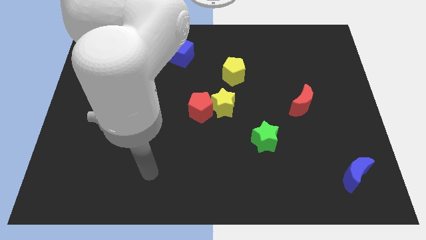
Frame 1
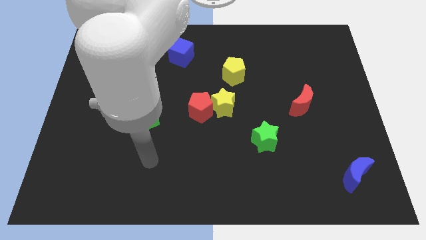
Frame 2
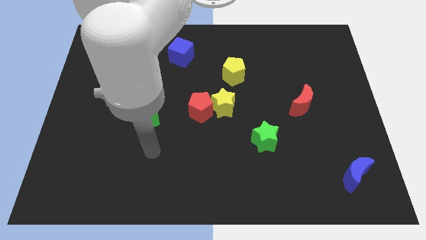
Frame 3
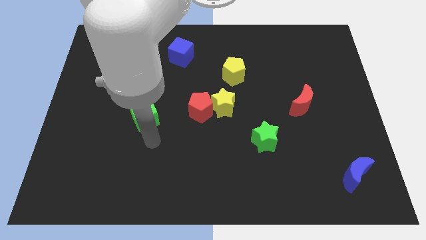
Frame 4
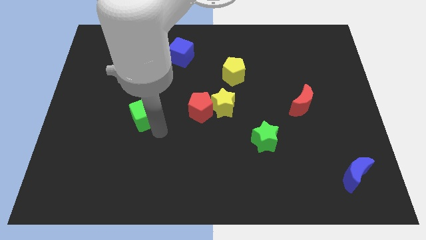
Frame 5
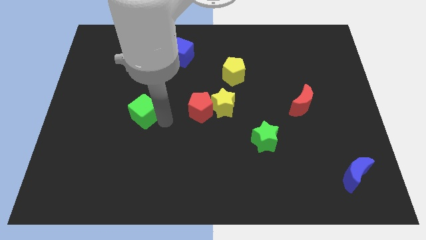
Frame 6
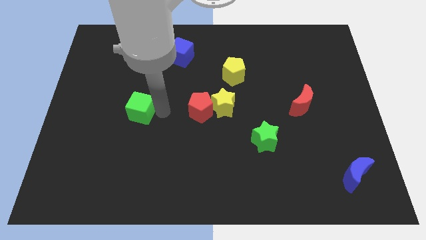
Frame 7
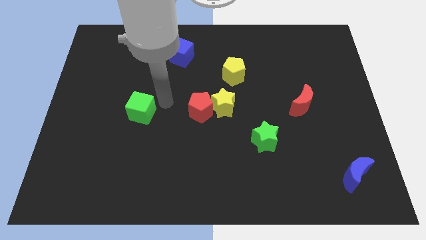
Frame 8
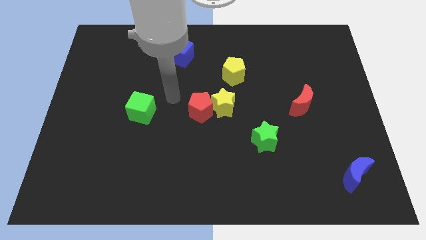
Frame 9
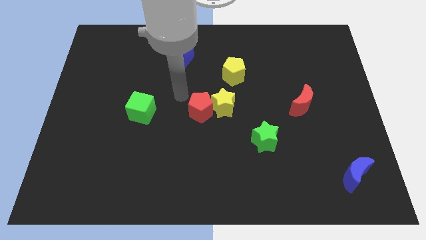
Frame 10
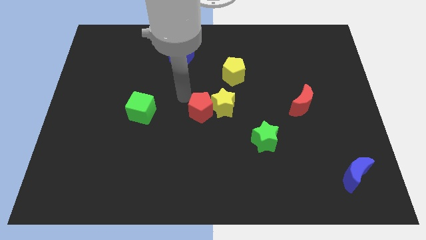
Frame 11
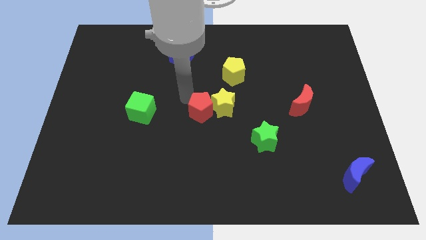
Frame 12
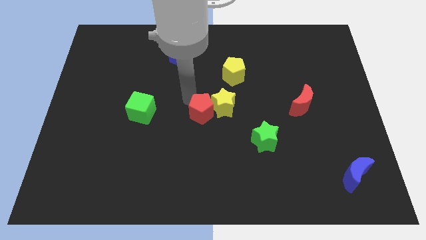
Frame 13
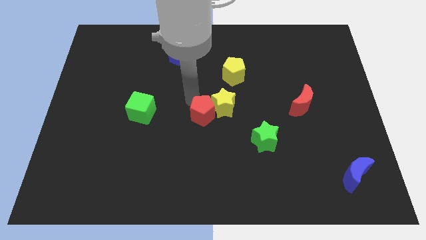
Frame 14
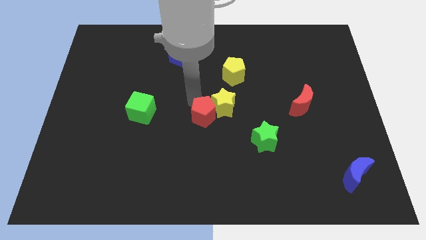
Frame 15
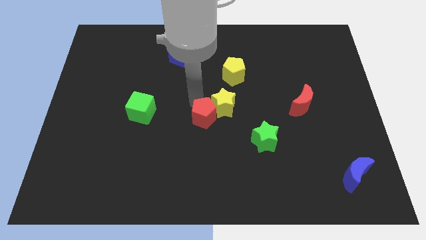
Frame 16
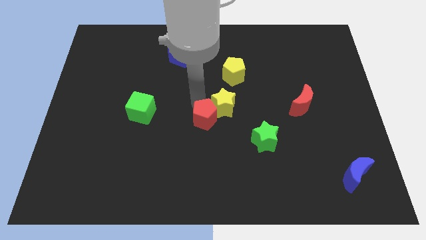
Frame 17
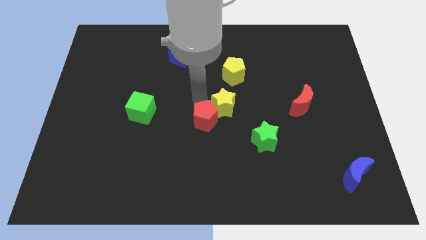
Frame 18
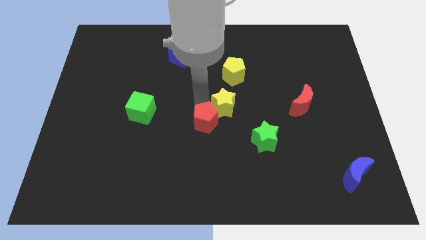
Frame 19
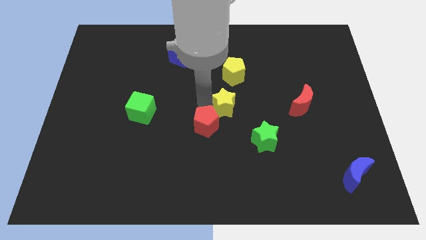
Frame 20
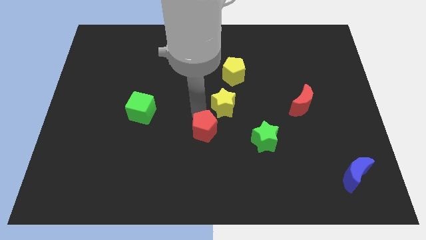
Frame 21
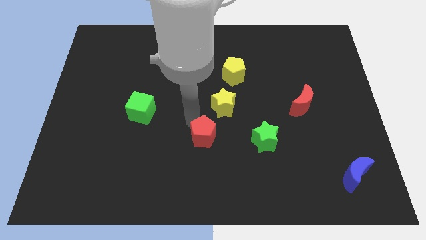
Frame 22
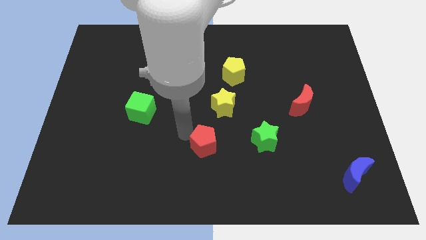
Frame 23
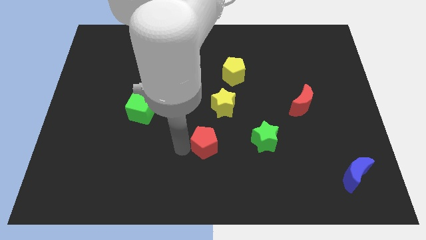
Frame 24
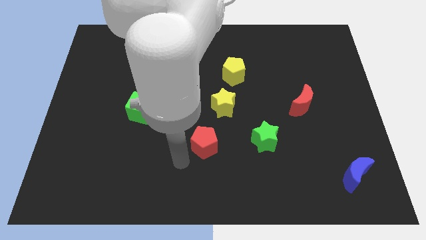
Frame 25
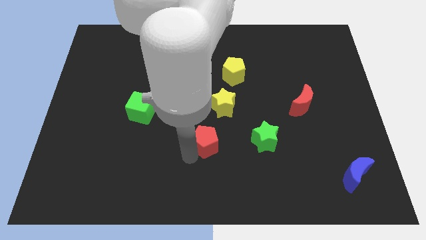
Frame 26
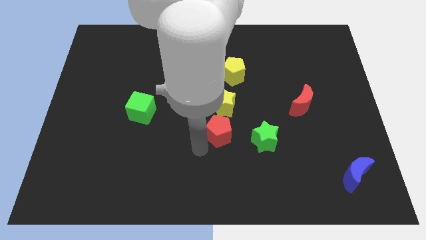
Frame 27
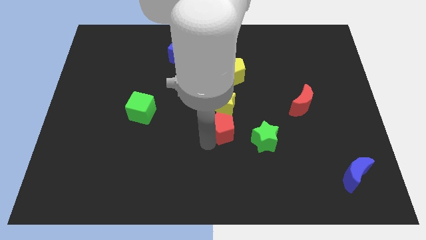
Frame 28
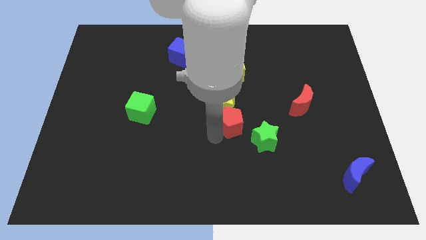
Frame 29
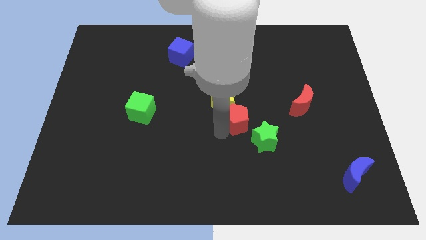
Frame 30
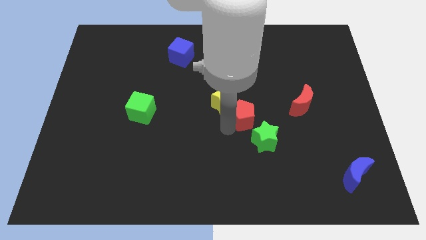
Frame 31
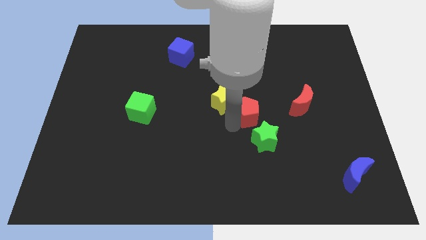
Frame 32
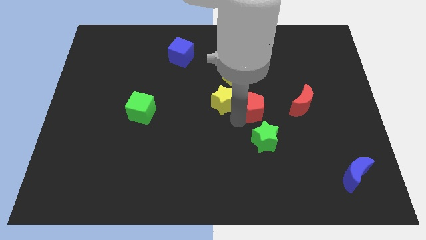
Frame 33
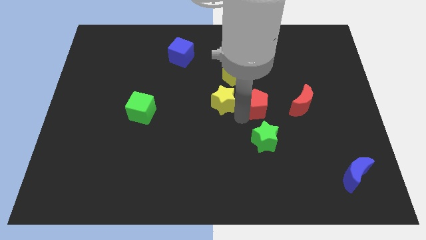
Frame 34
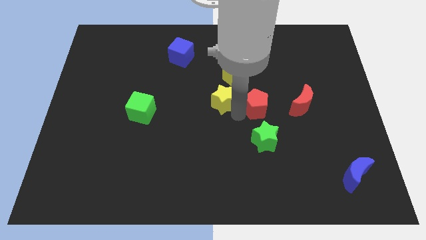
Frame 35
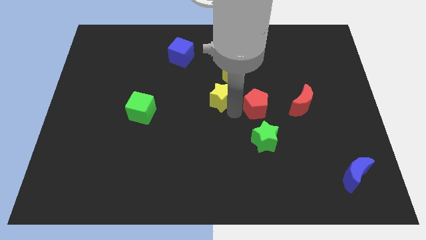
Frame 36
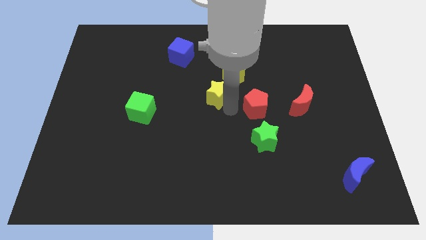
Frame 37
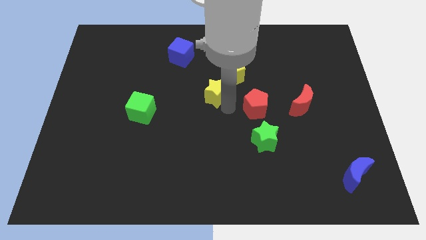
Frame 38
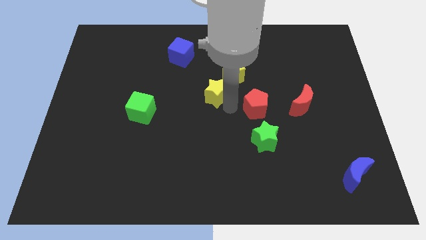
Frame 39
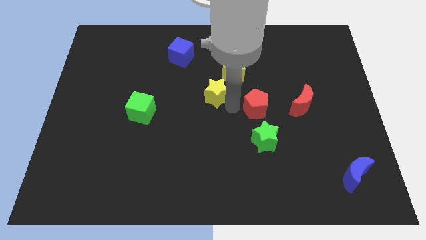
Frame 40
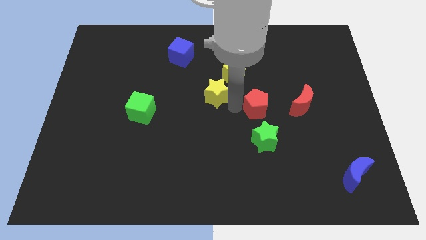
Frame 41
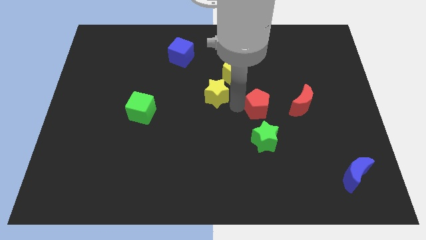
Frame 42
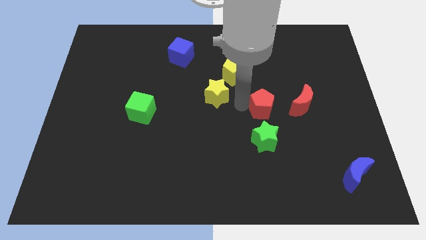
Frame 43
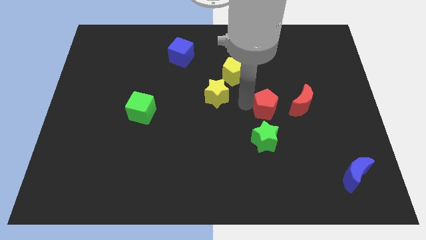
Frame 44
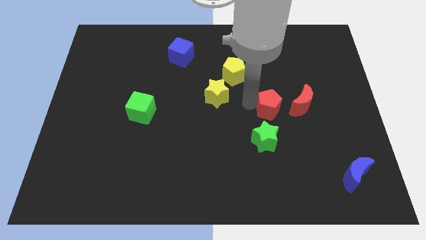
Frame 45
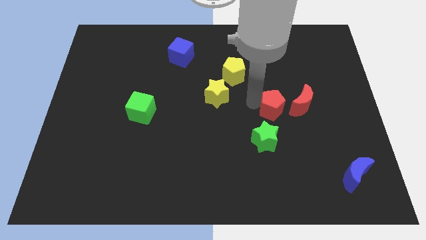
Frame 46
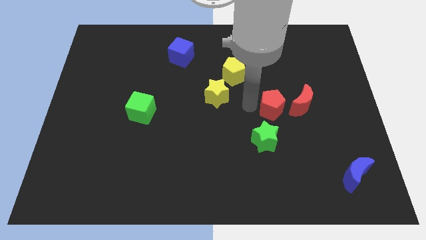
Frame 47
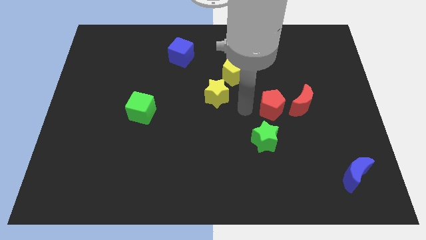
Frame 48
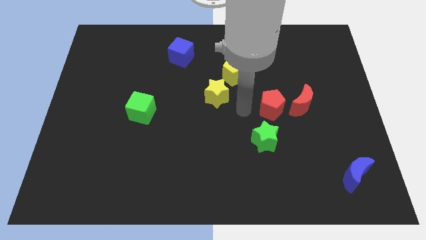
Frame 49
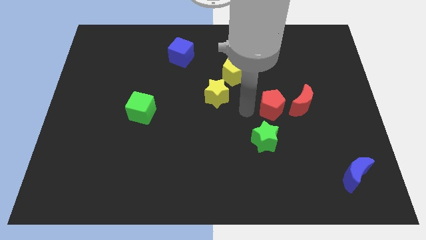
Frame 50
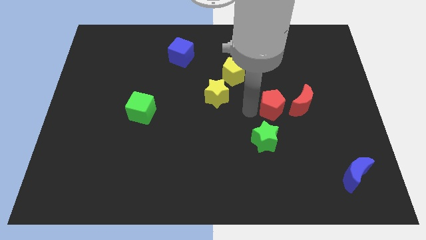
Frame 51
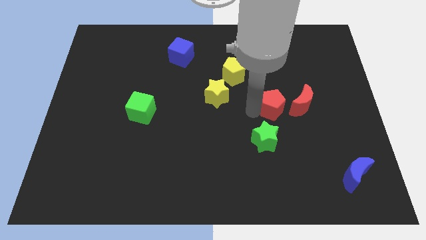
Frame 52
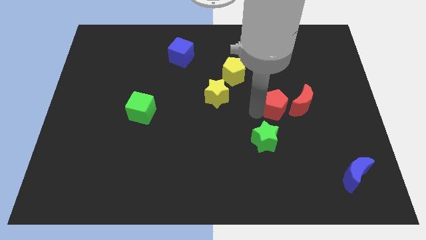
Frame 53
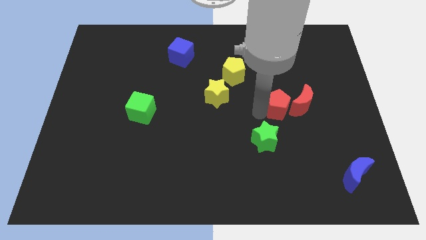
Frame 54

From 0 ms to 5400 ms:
push the red pentagon next to the red moon

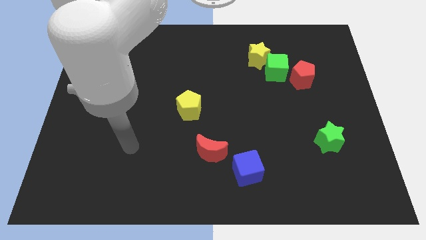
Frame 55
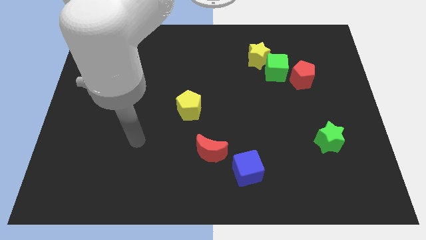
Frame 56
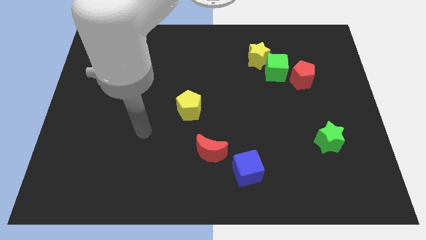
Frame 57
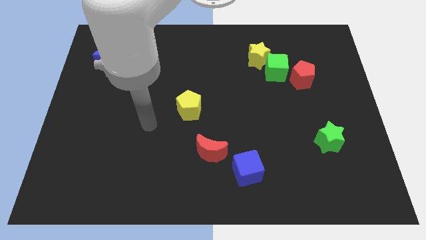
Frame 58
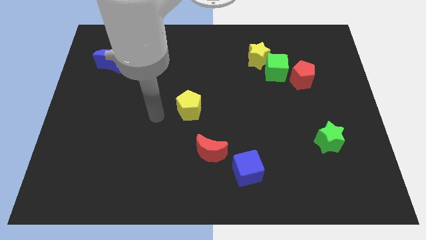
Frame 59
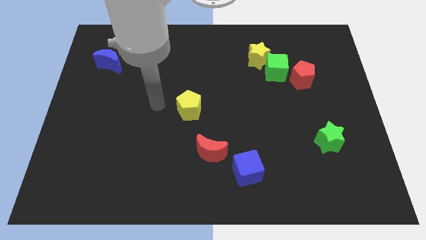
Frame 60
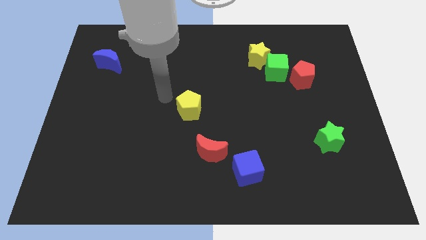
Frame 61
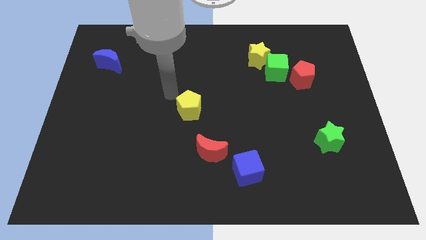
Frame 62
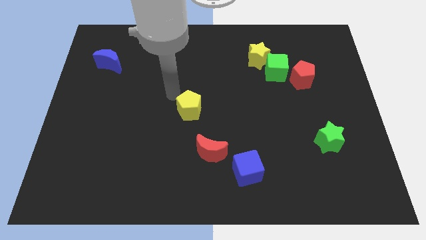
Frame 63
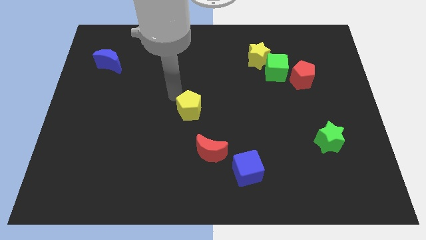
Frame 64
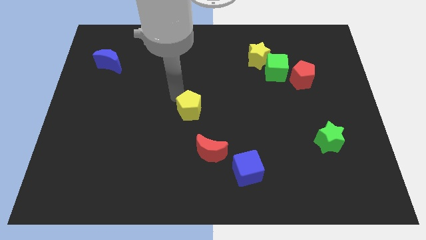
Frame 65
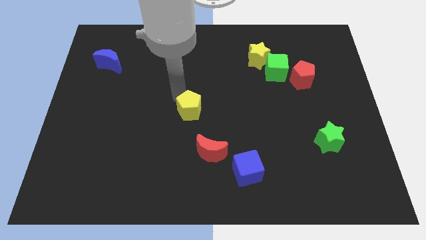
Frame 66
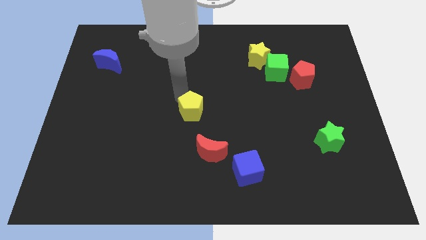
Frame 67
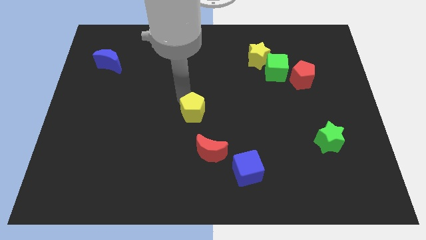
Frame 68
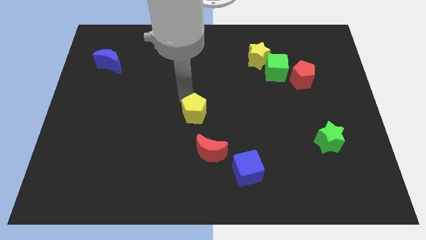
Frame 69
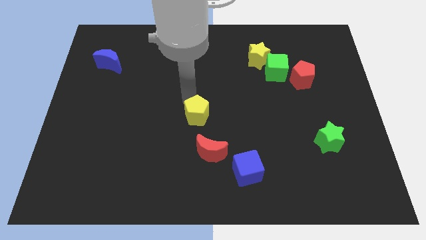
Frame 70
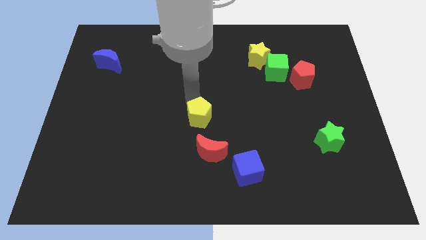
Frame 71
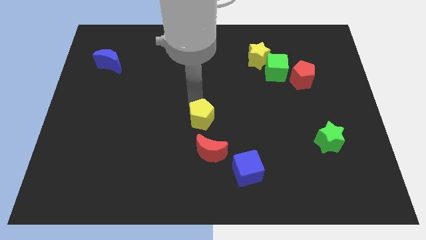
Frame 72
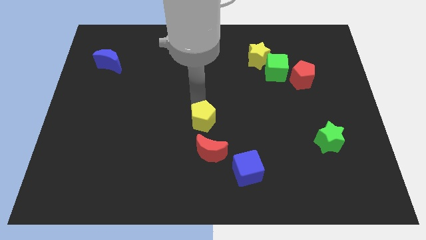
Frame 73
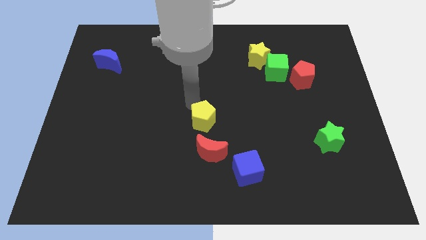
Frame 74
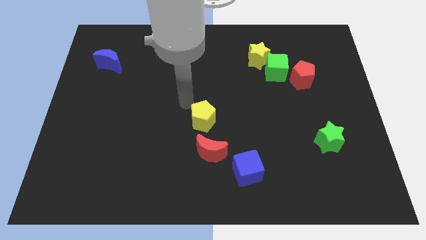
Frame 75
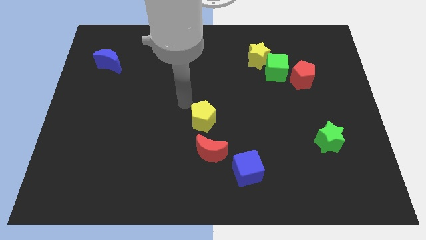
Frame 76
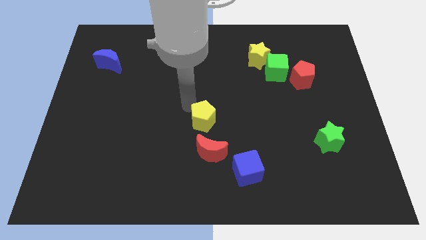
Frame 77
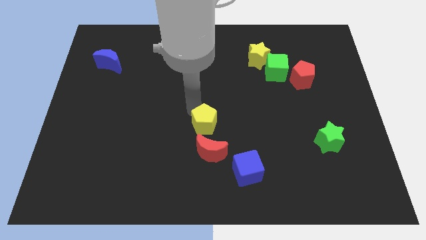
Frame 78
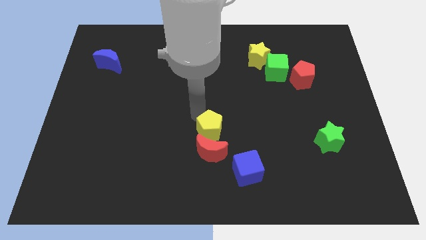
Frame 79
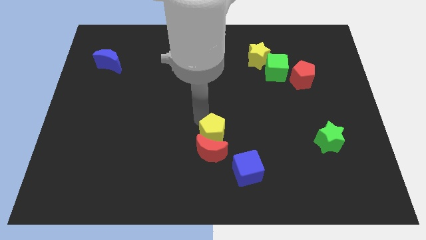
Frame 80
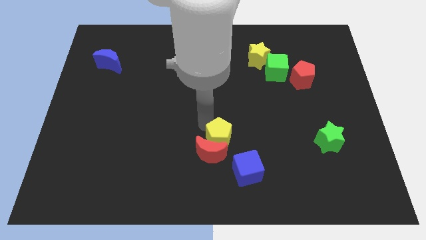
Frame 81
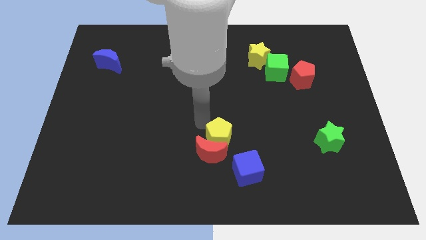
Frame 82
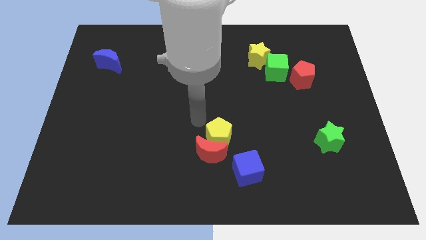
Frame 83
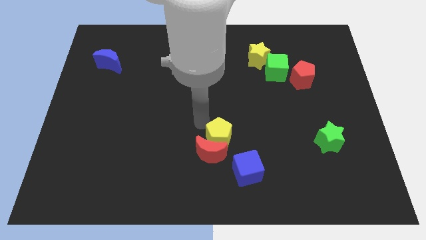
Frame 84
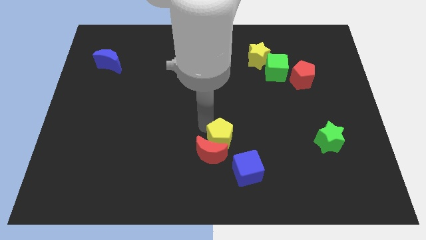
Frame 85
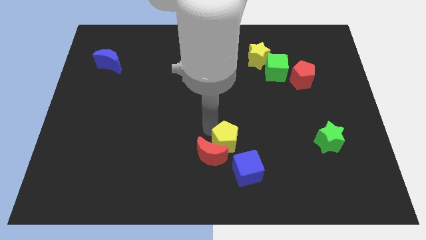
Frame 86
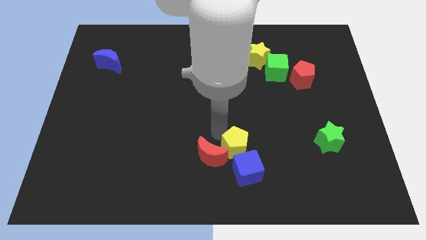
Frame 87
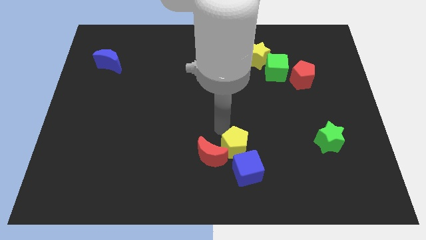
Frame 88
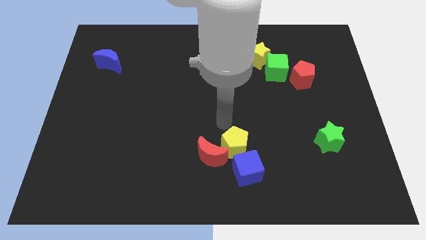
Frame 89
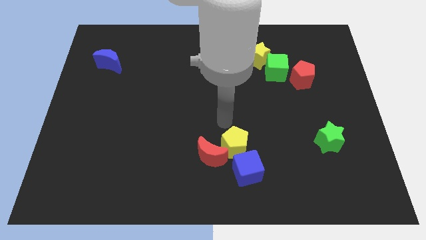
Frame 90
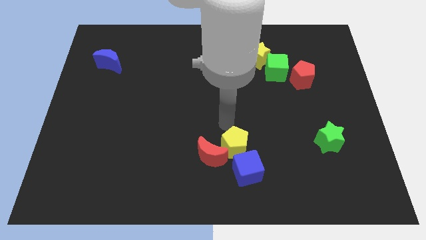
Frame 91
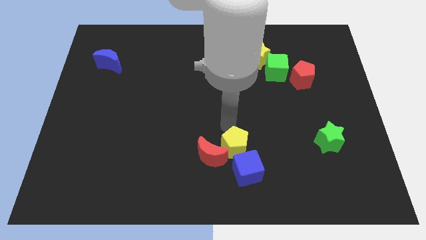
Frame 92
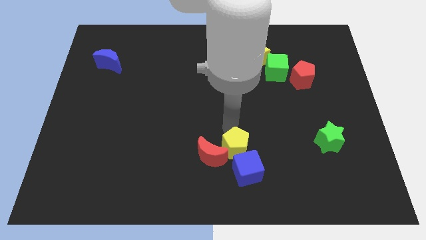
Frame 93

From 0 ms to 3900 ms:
move the yellow pentagon to the blue cube
